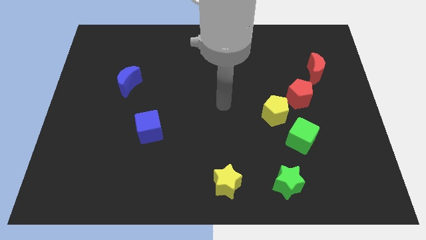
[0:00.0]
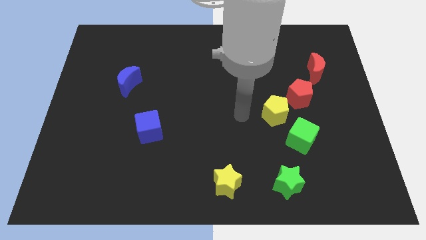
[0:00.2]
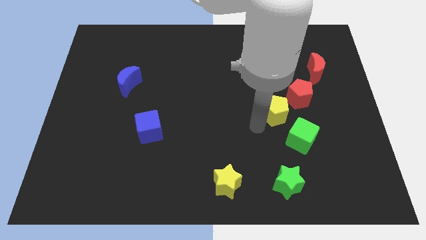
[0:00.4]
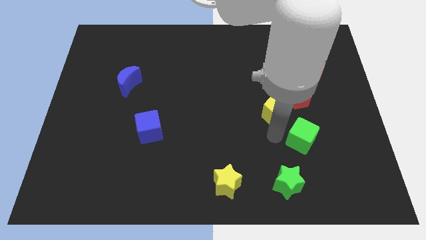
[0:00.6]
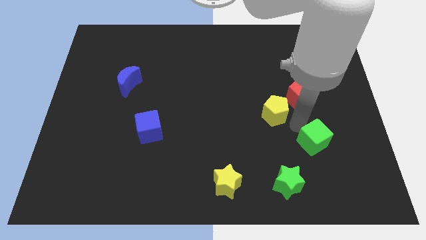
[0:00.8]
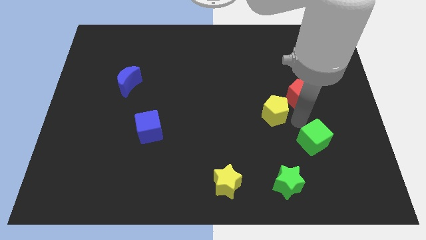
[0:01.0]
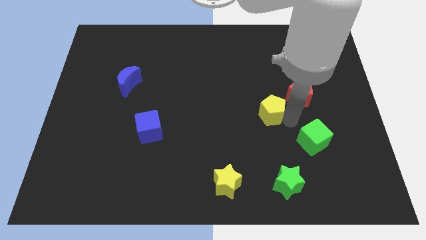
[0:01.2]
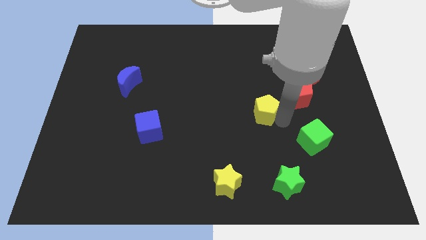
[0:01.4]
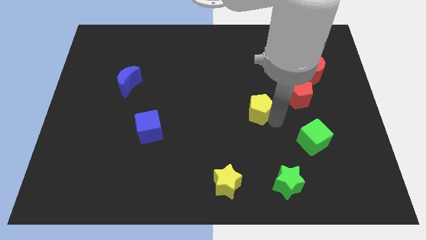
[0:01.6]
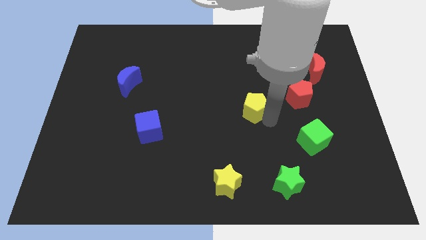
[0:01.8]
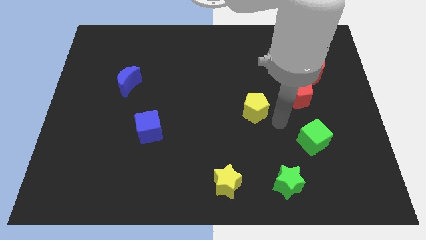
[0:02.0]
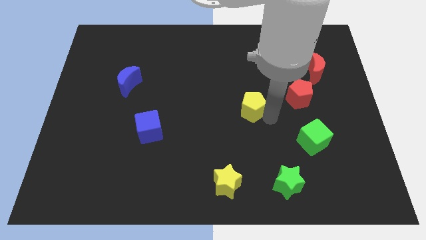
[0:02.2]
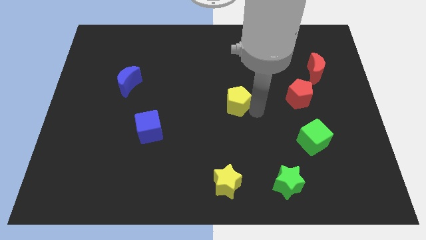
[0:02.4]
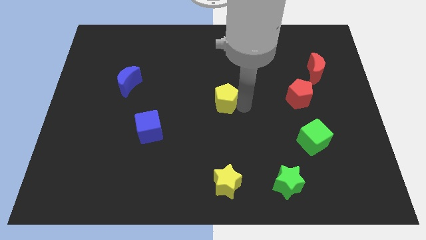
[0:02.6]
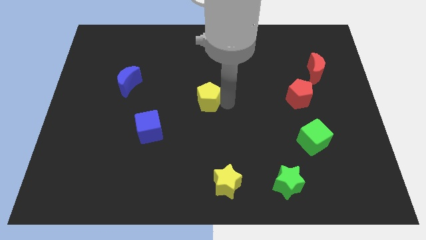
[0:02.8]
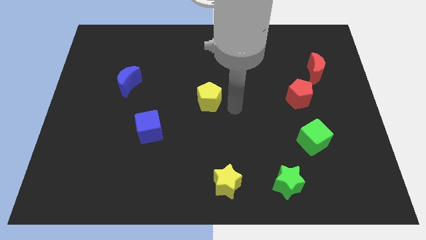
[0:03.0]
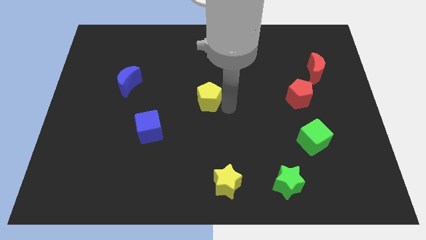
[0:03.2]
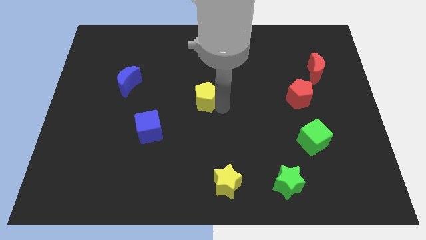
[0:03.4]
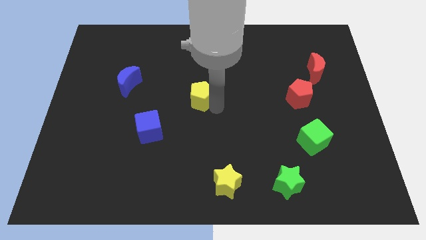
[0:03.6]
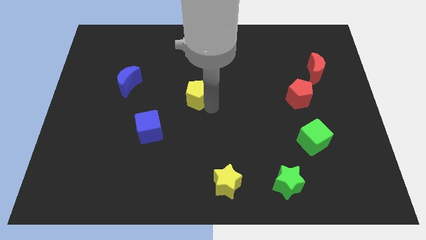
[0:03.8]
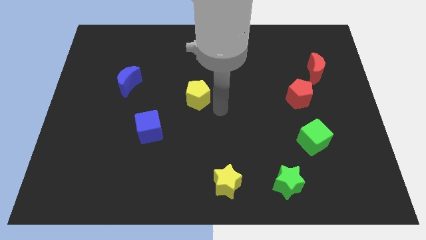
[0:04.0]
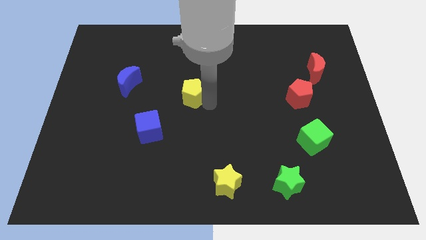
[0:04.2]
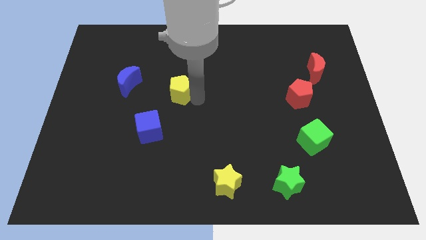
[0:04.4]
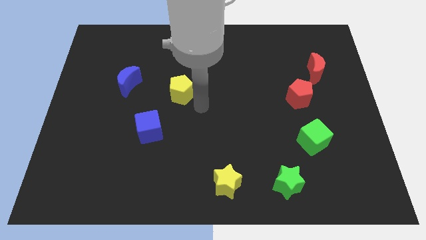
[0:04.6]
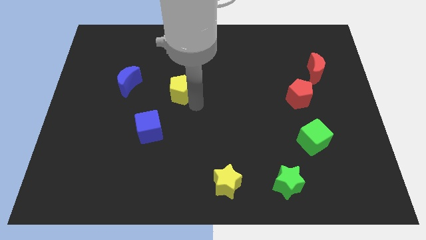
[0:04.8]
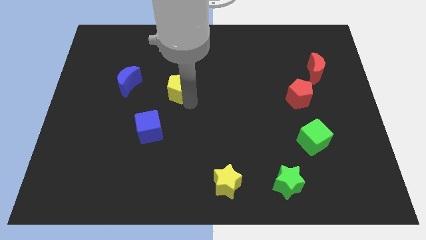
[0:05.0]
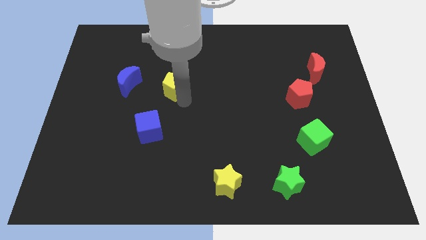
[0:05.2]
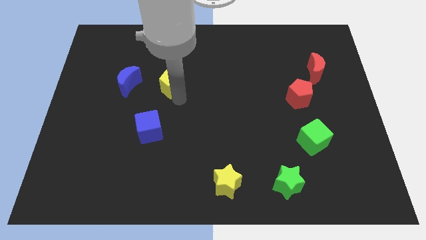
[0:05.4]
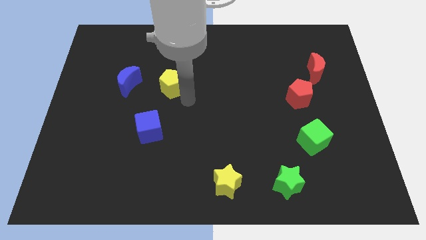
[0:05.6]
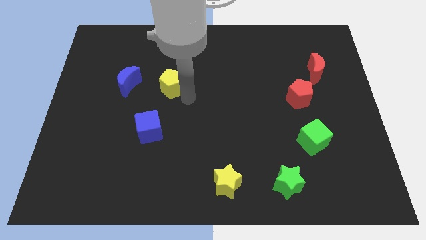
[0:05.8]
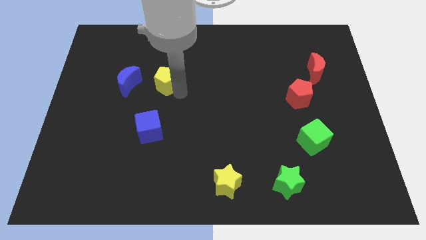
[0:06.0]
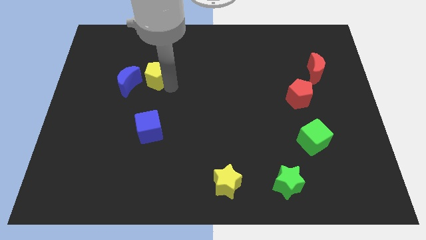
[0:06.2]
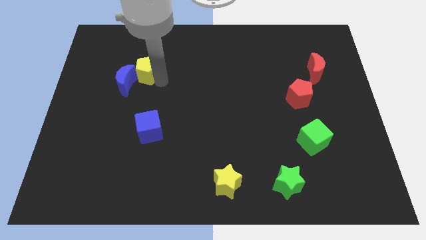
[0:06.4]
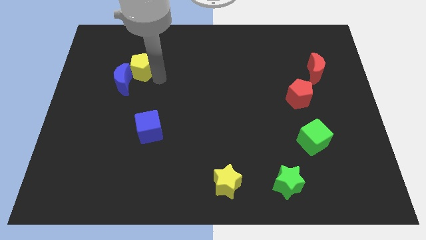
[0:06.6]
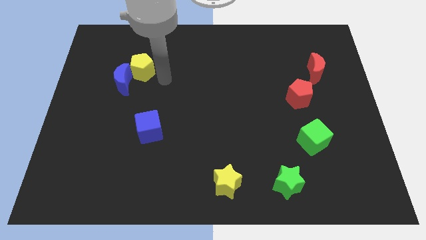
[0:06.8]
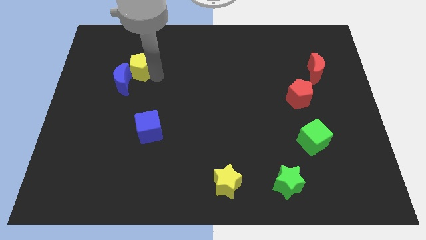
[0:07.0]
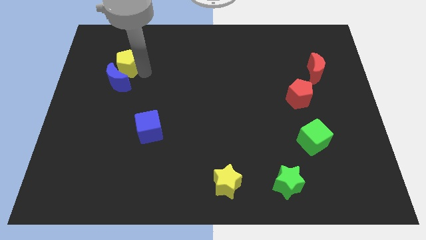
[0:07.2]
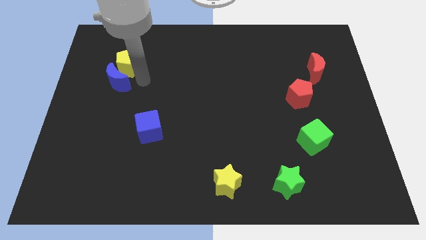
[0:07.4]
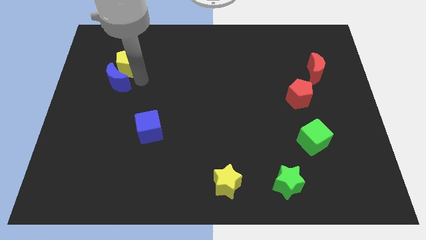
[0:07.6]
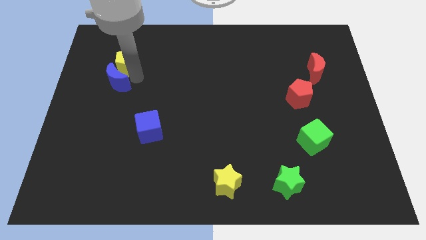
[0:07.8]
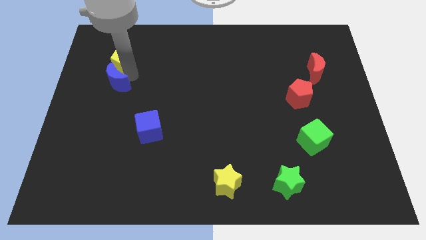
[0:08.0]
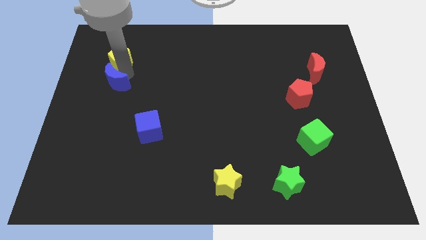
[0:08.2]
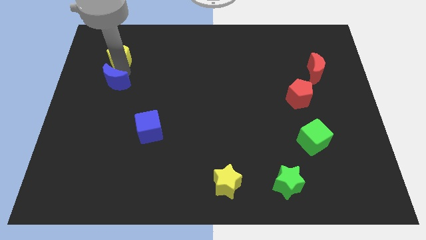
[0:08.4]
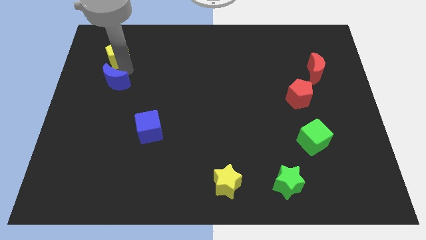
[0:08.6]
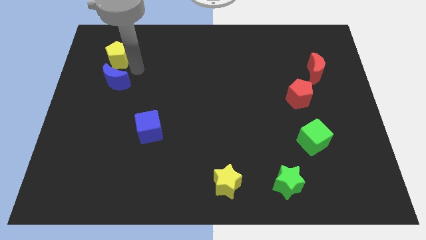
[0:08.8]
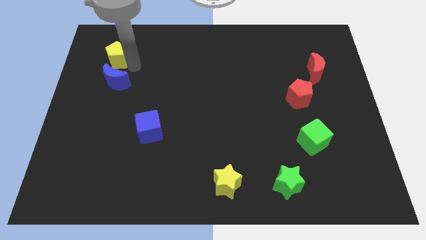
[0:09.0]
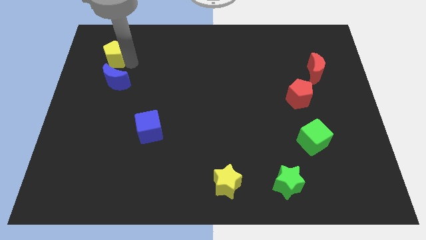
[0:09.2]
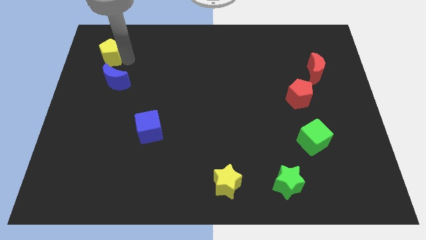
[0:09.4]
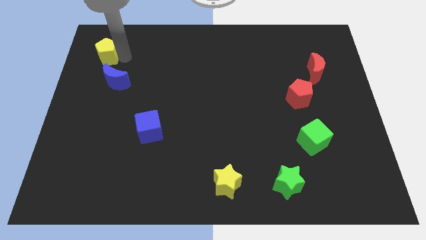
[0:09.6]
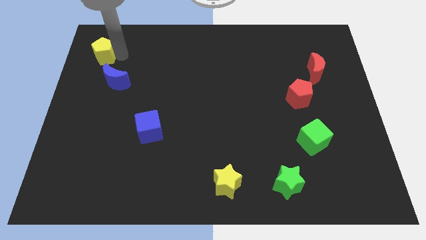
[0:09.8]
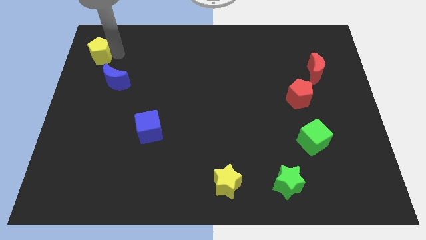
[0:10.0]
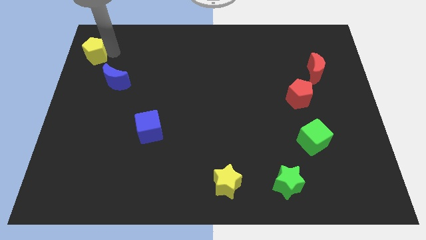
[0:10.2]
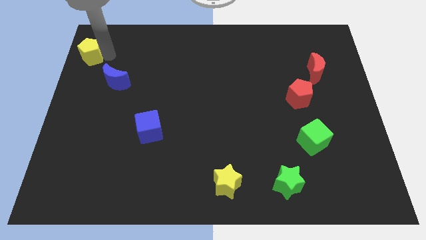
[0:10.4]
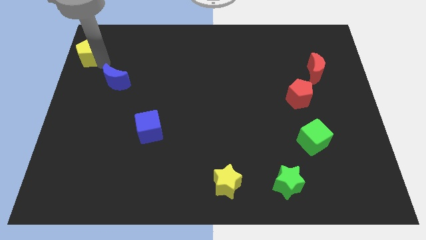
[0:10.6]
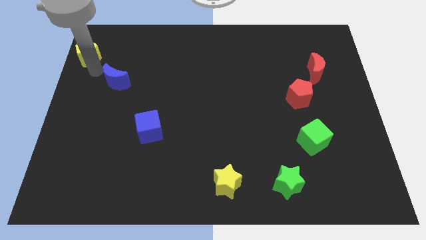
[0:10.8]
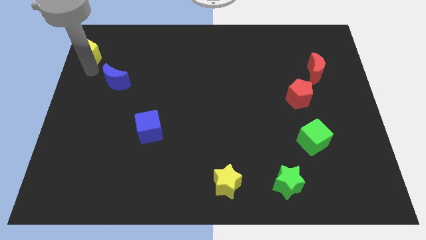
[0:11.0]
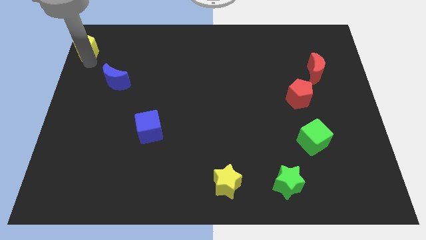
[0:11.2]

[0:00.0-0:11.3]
slide the yellow pentagon to the top left of the board
